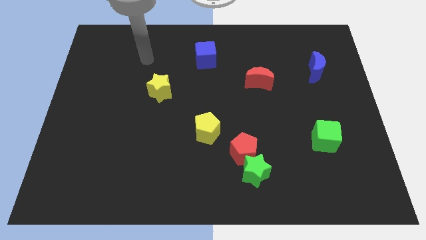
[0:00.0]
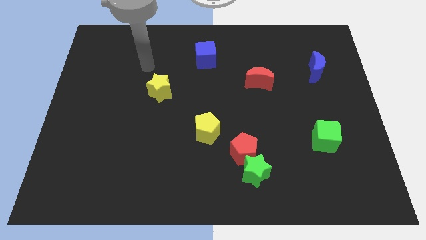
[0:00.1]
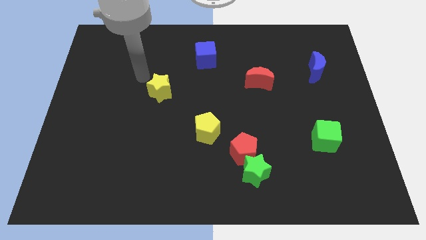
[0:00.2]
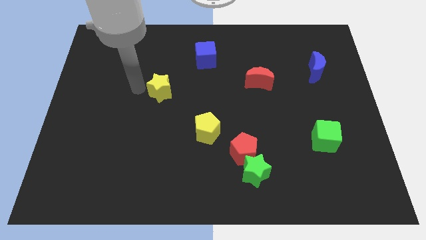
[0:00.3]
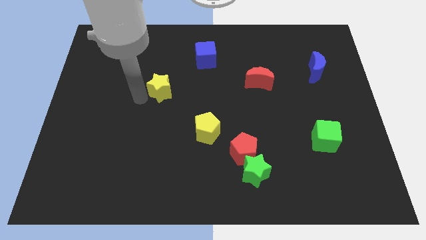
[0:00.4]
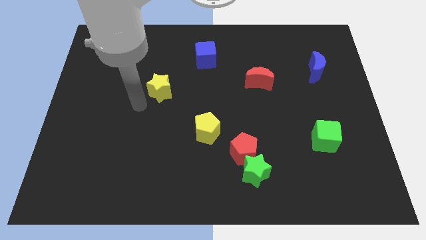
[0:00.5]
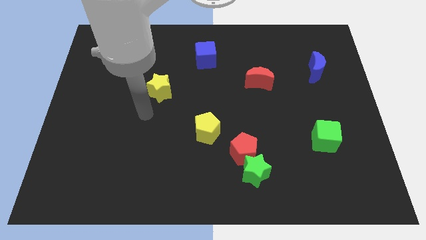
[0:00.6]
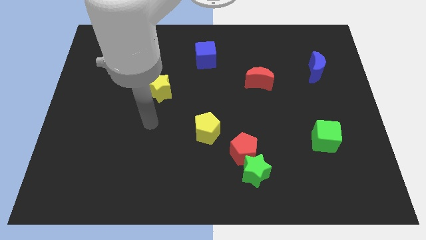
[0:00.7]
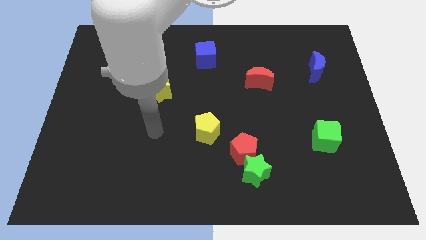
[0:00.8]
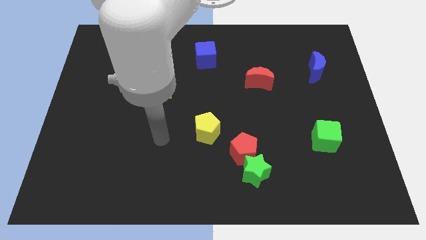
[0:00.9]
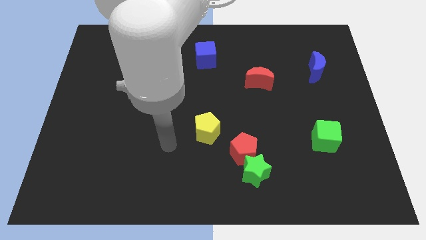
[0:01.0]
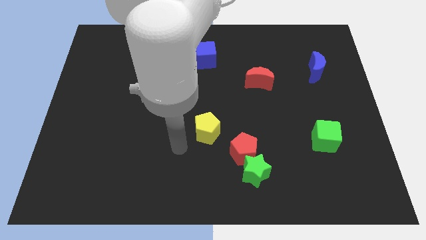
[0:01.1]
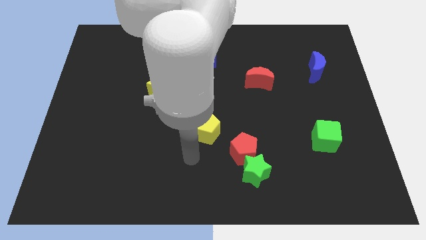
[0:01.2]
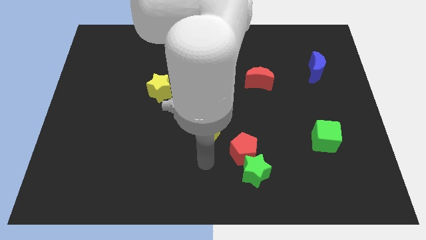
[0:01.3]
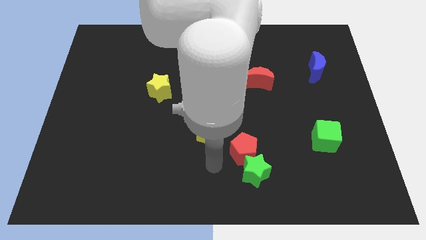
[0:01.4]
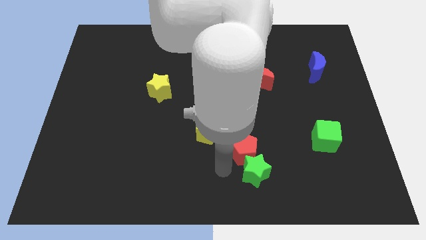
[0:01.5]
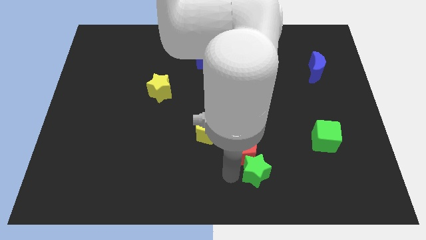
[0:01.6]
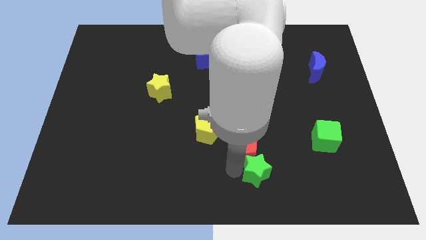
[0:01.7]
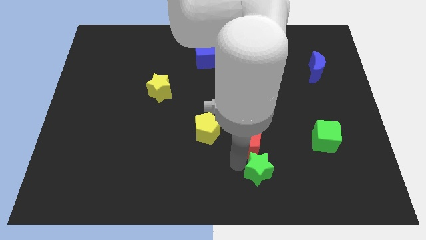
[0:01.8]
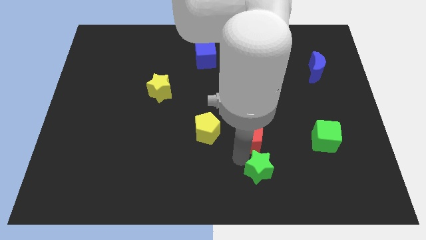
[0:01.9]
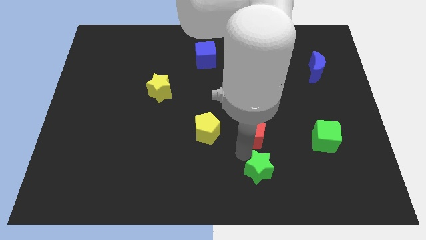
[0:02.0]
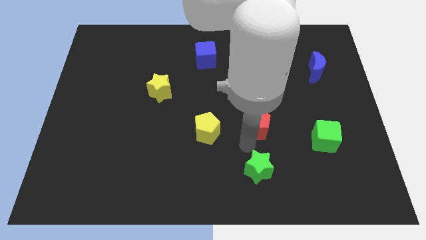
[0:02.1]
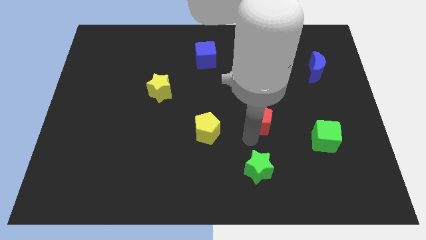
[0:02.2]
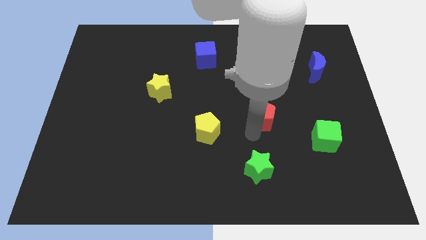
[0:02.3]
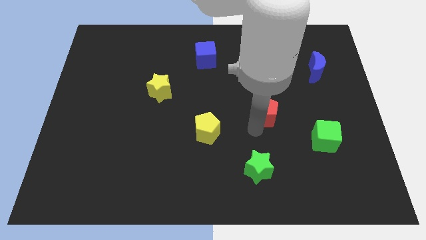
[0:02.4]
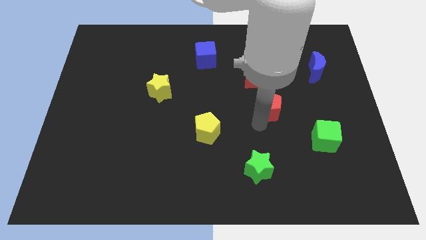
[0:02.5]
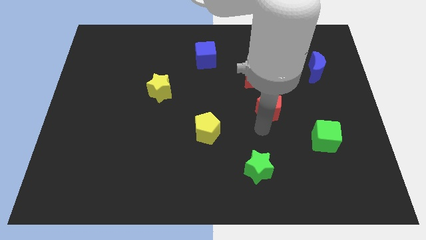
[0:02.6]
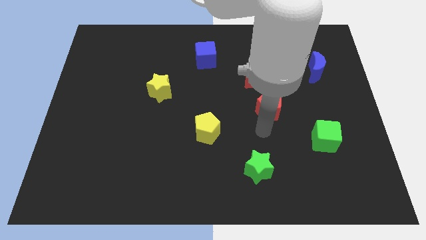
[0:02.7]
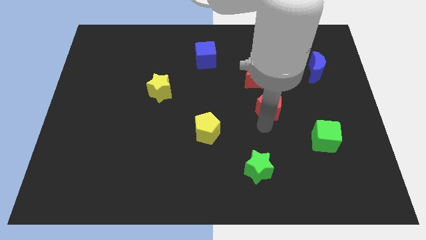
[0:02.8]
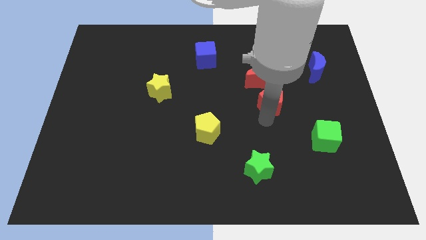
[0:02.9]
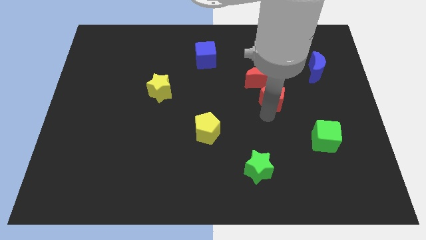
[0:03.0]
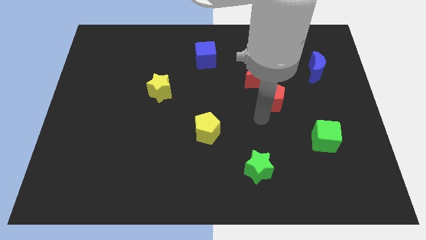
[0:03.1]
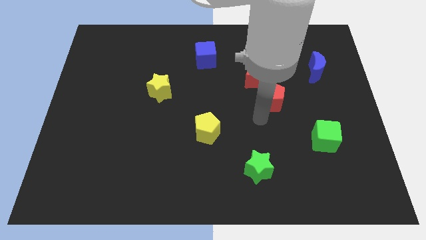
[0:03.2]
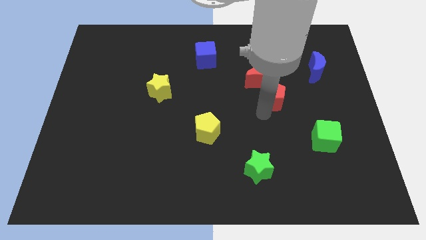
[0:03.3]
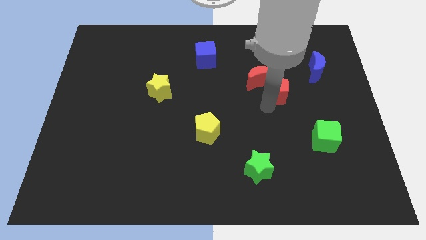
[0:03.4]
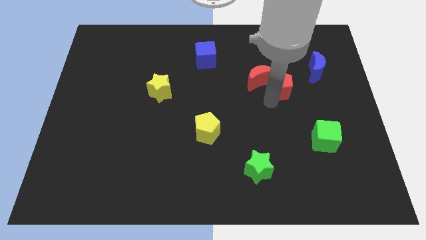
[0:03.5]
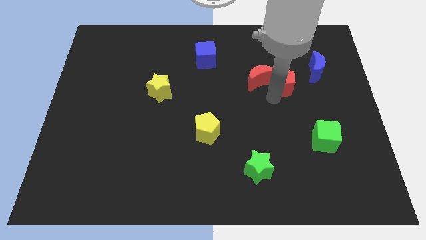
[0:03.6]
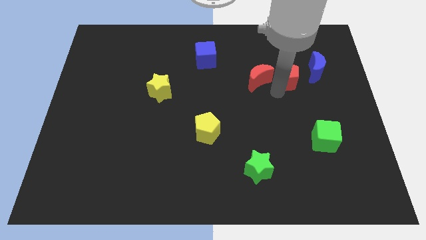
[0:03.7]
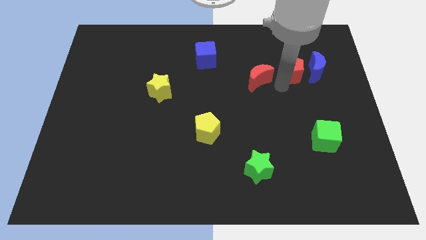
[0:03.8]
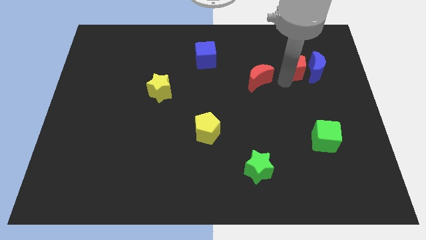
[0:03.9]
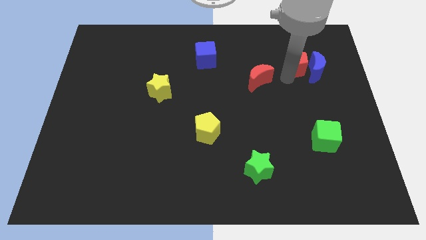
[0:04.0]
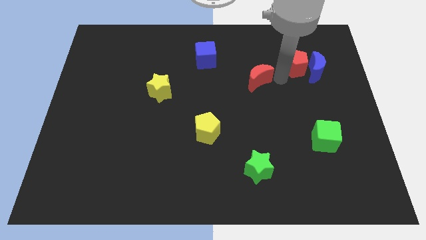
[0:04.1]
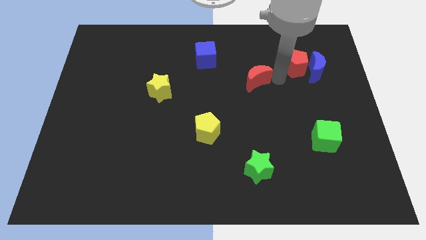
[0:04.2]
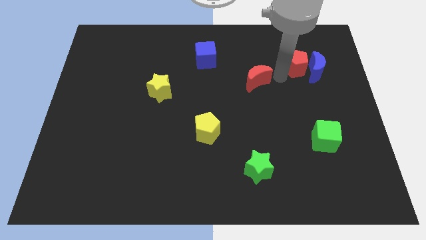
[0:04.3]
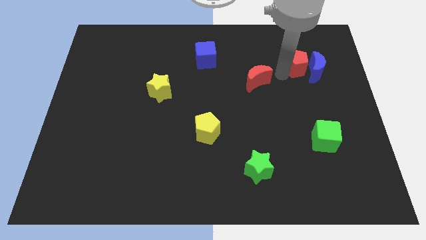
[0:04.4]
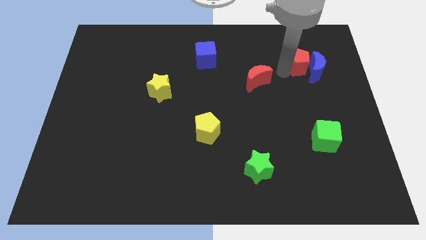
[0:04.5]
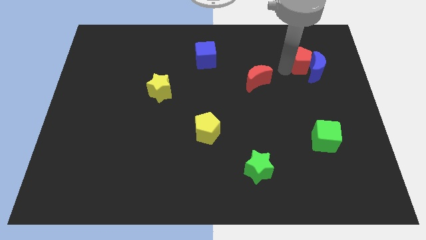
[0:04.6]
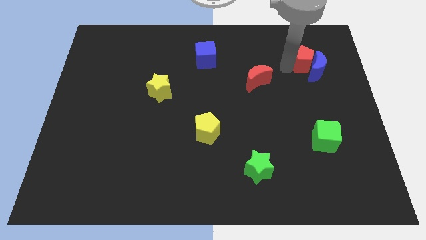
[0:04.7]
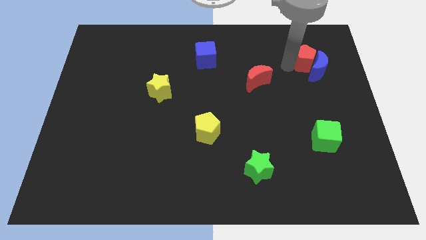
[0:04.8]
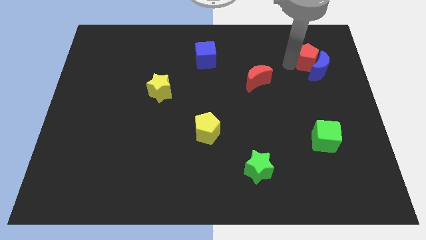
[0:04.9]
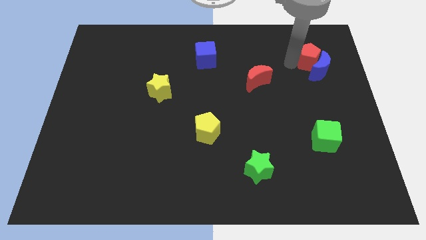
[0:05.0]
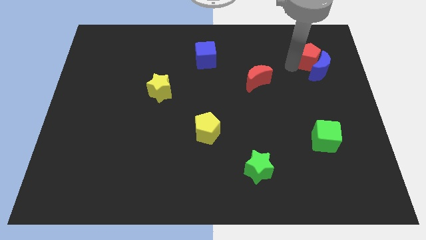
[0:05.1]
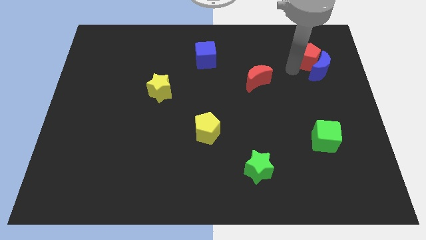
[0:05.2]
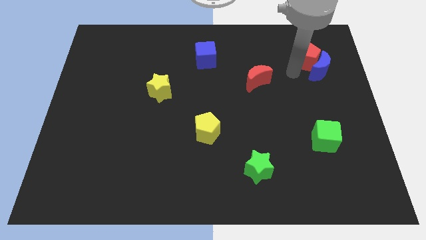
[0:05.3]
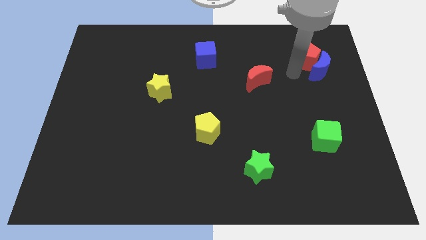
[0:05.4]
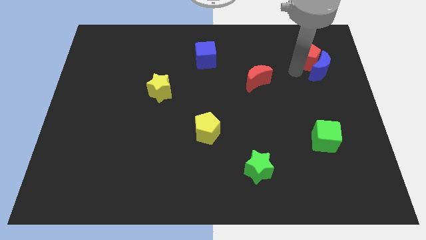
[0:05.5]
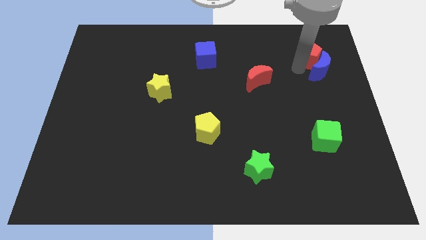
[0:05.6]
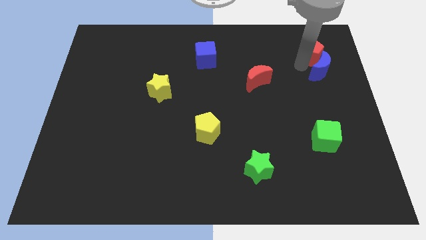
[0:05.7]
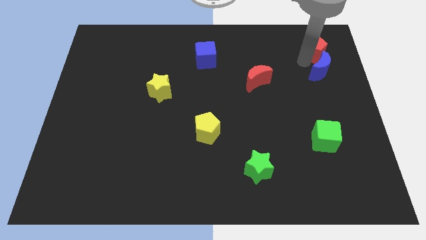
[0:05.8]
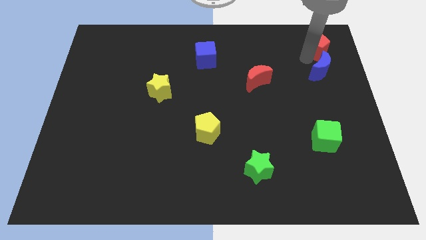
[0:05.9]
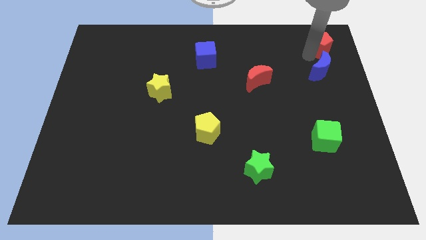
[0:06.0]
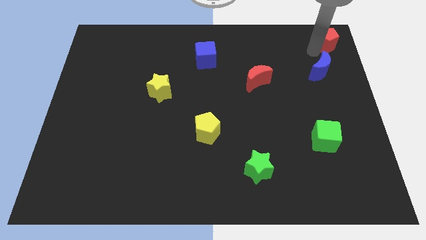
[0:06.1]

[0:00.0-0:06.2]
slide the red pentagon to the top right corner
